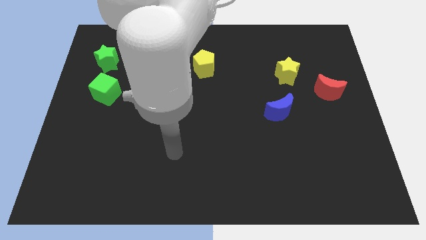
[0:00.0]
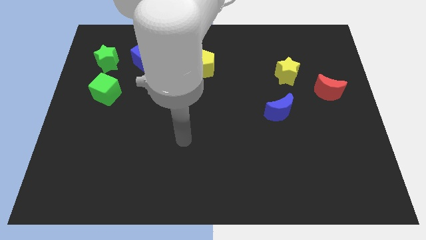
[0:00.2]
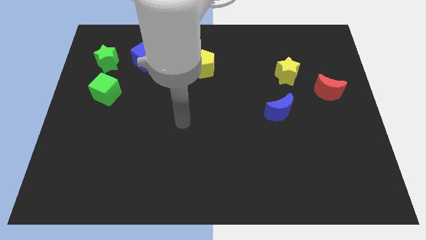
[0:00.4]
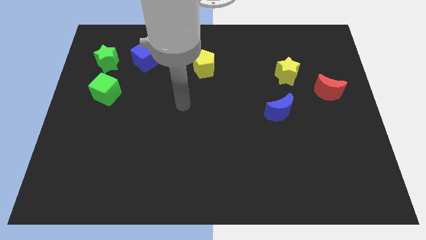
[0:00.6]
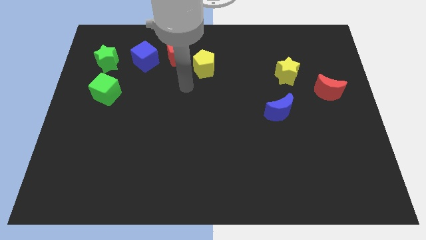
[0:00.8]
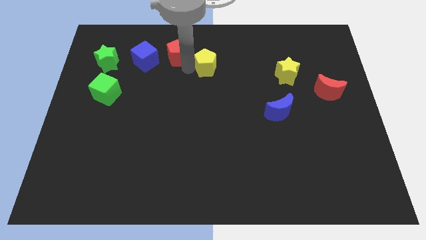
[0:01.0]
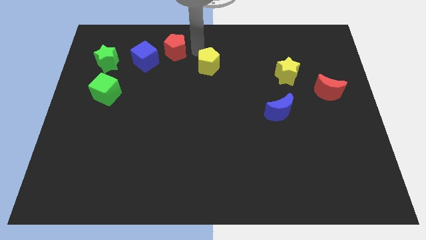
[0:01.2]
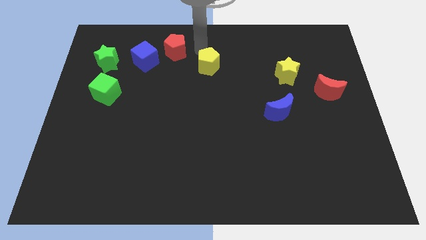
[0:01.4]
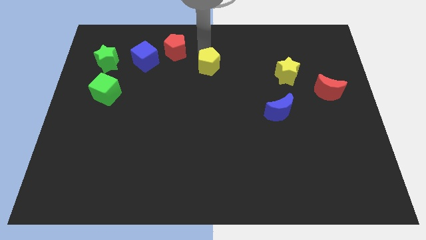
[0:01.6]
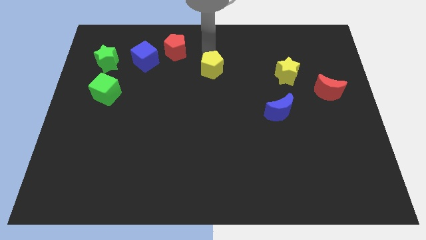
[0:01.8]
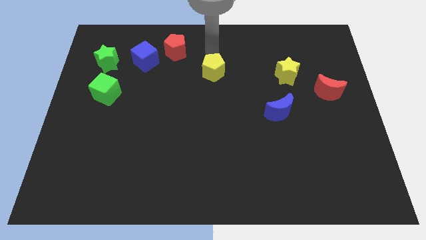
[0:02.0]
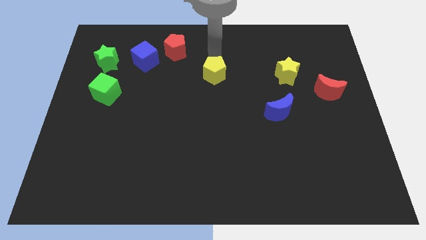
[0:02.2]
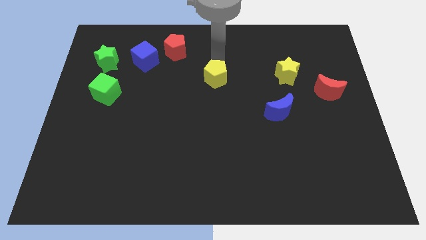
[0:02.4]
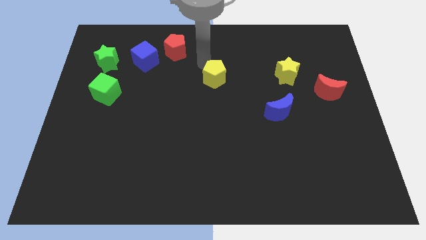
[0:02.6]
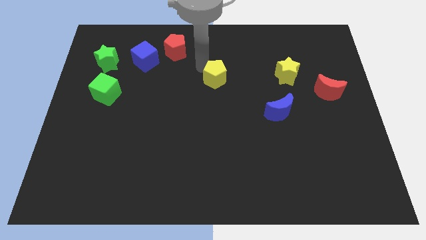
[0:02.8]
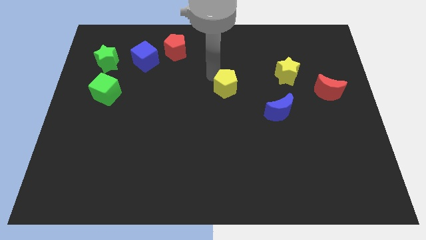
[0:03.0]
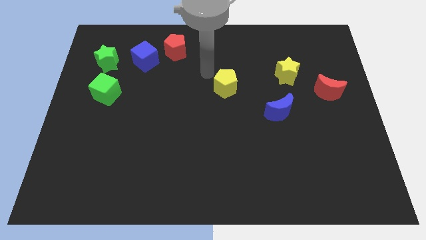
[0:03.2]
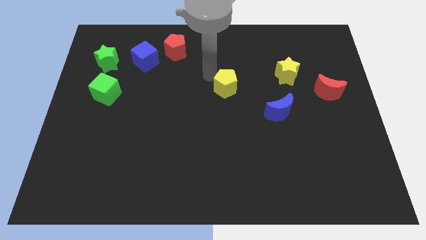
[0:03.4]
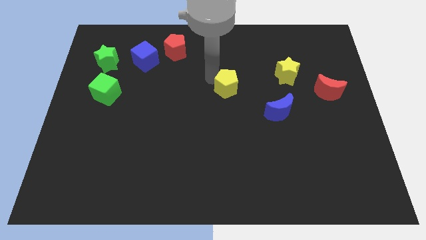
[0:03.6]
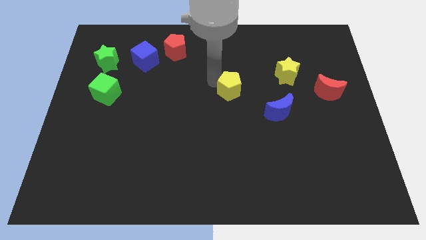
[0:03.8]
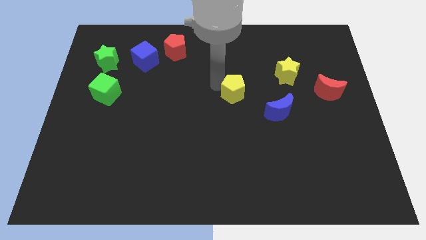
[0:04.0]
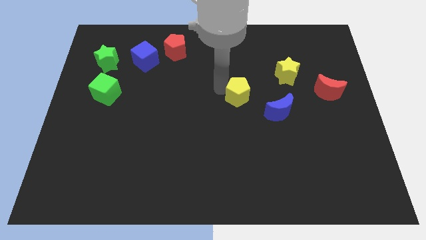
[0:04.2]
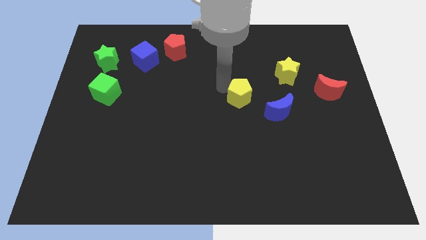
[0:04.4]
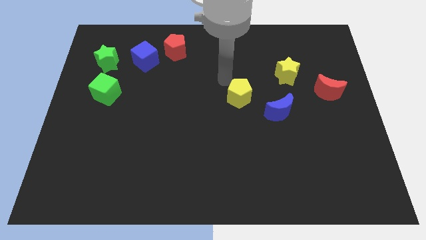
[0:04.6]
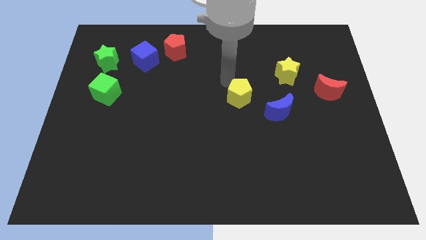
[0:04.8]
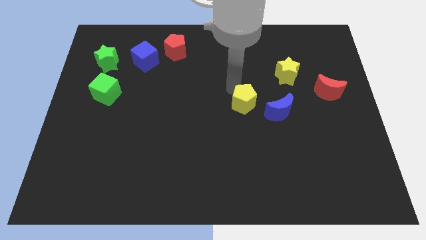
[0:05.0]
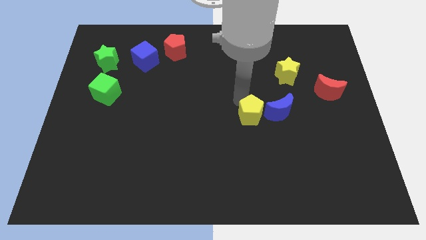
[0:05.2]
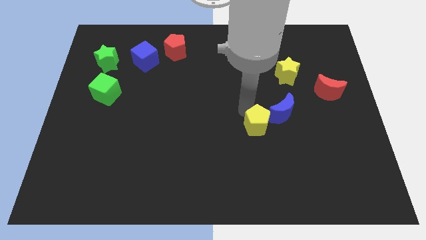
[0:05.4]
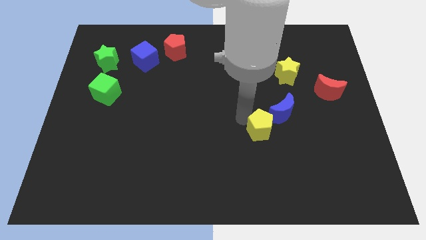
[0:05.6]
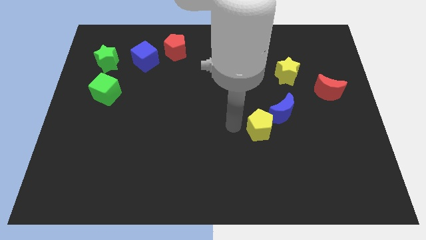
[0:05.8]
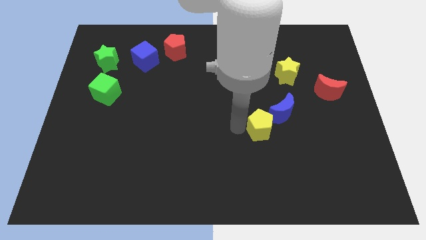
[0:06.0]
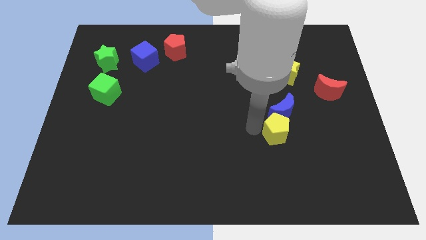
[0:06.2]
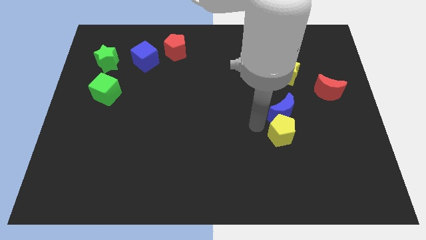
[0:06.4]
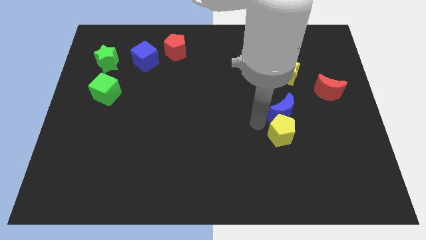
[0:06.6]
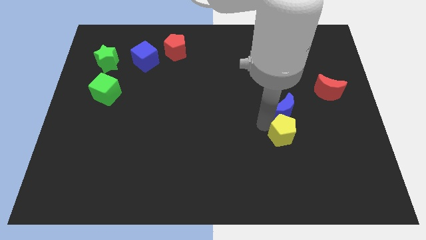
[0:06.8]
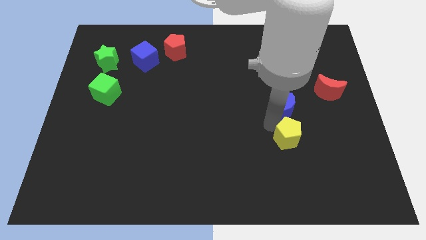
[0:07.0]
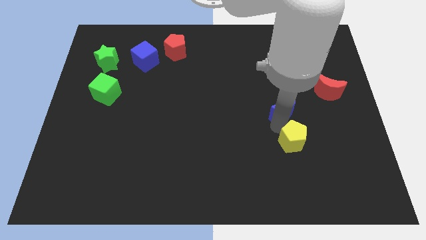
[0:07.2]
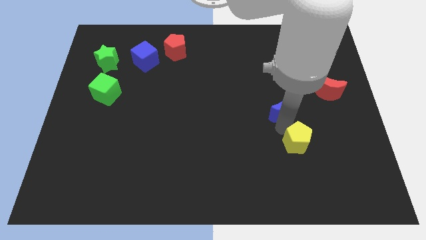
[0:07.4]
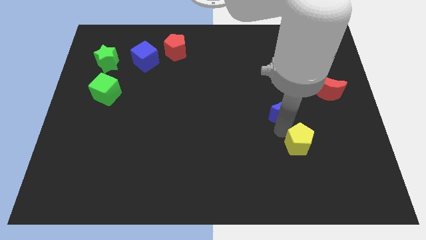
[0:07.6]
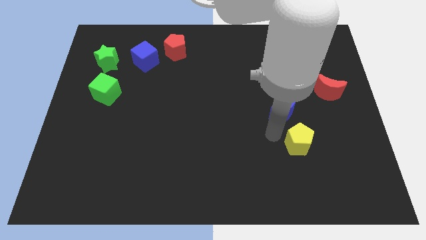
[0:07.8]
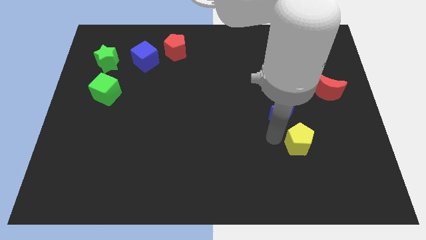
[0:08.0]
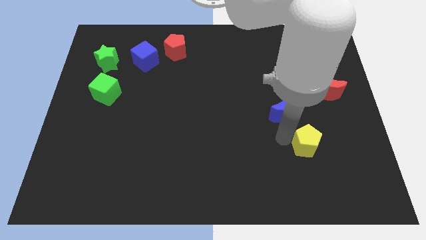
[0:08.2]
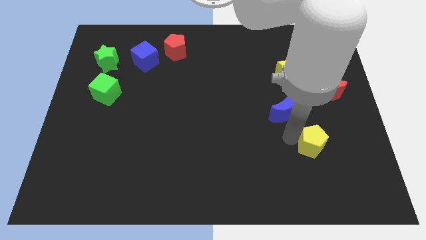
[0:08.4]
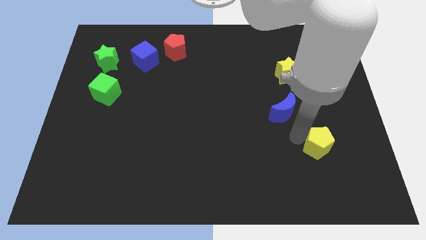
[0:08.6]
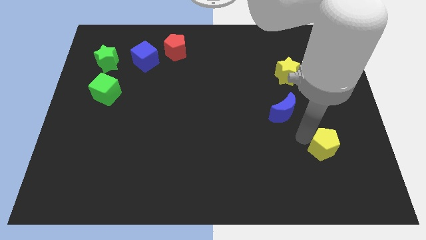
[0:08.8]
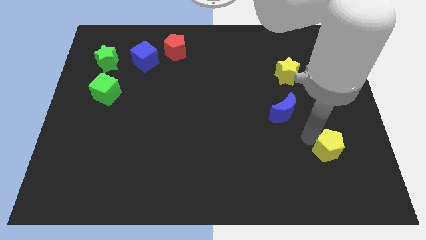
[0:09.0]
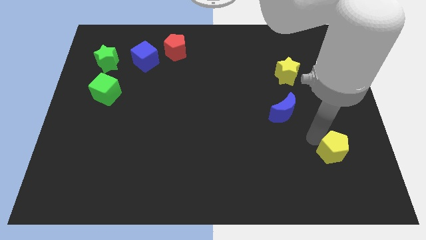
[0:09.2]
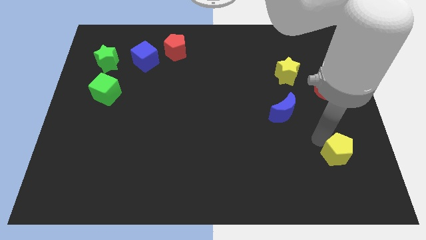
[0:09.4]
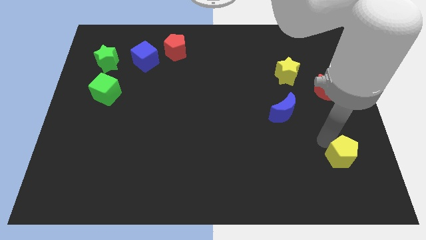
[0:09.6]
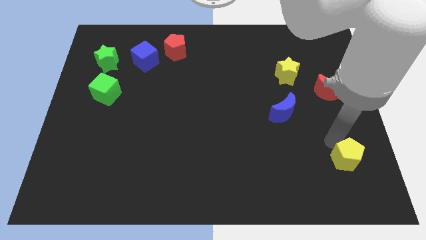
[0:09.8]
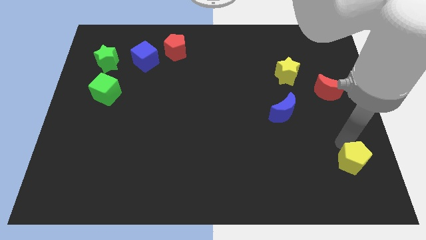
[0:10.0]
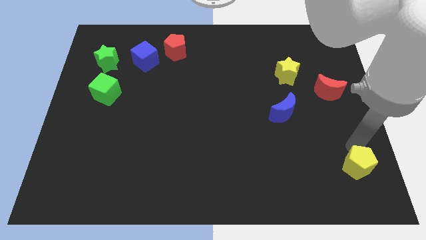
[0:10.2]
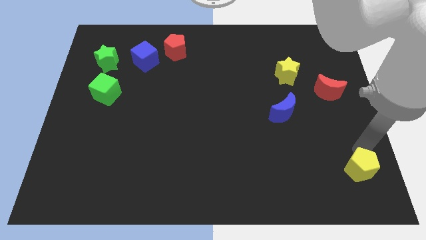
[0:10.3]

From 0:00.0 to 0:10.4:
move the yellow pentagon to the lower right corner

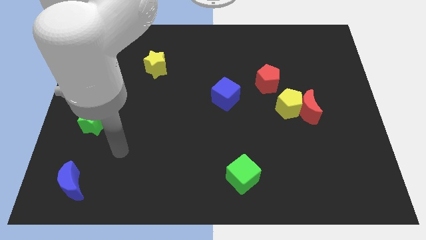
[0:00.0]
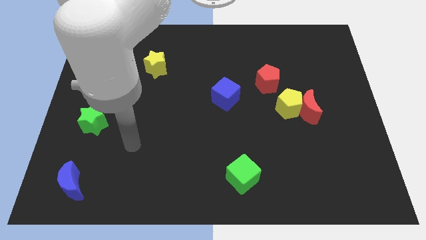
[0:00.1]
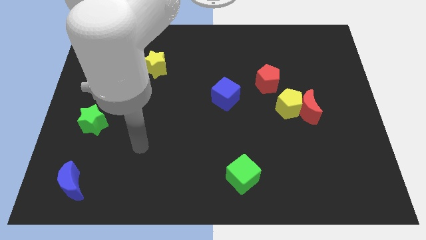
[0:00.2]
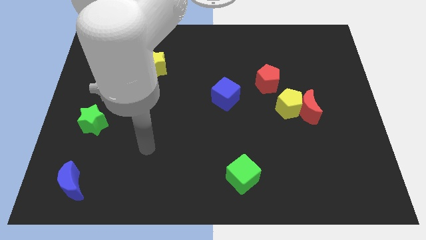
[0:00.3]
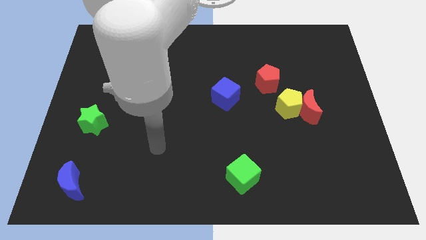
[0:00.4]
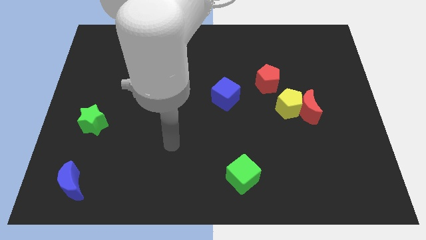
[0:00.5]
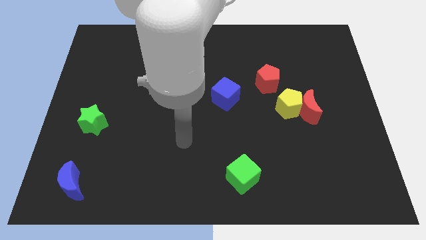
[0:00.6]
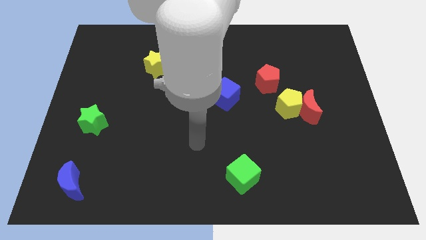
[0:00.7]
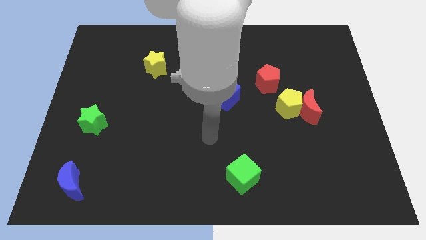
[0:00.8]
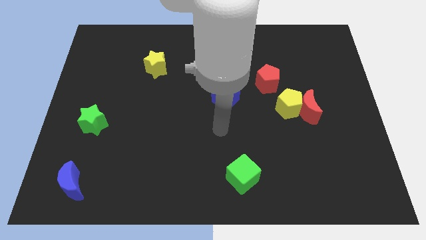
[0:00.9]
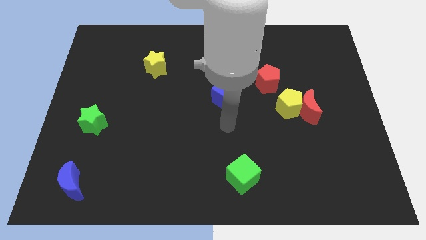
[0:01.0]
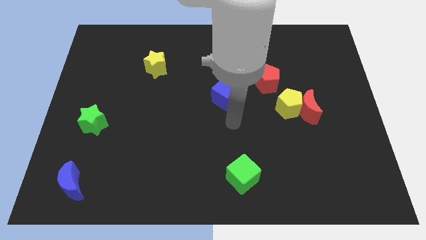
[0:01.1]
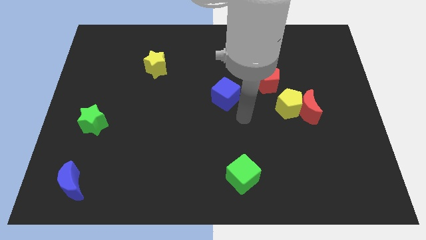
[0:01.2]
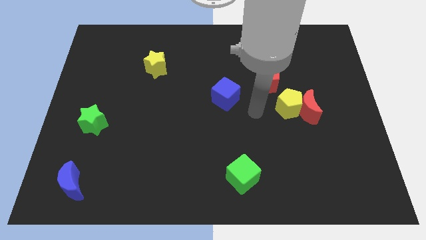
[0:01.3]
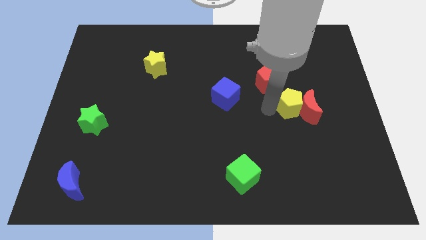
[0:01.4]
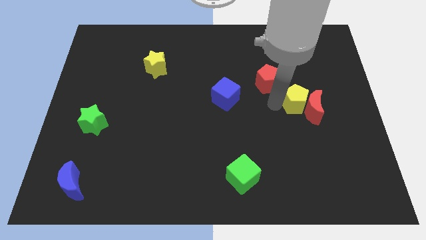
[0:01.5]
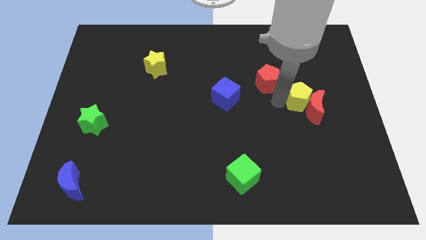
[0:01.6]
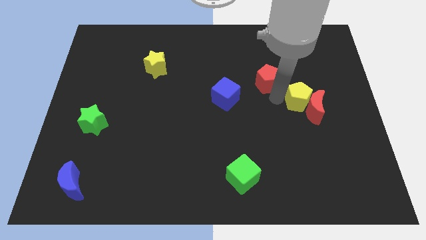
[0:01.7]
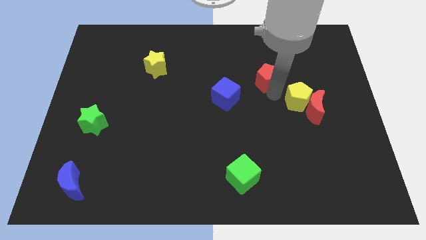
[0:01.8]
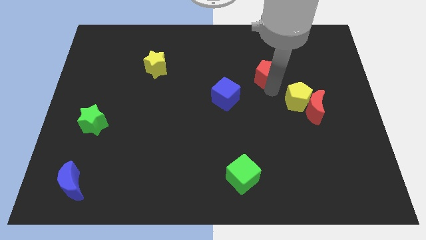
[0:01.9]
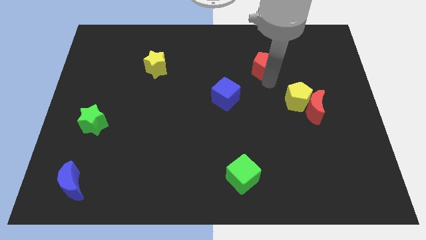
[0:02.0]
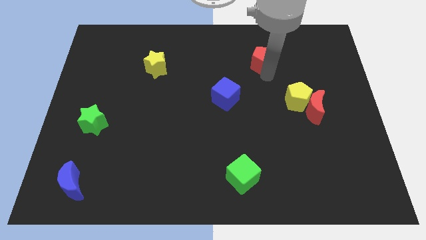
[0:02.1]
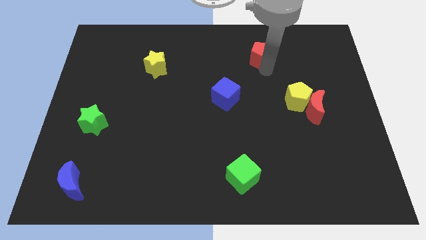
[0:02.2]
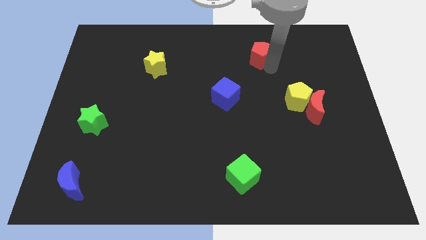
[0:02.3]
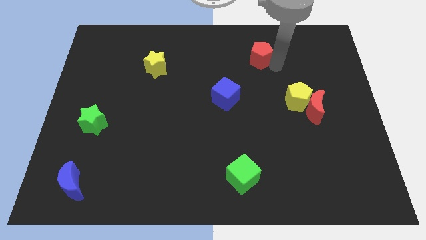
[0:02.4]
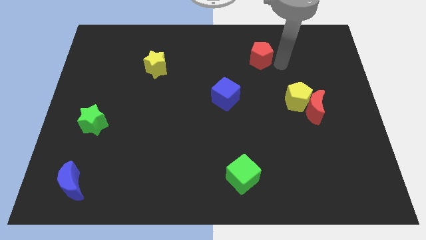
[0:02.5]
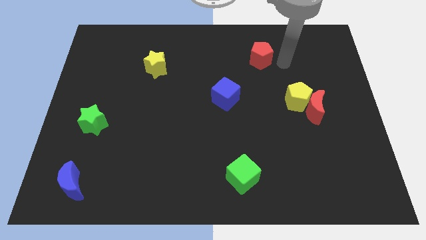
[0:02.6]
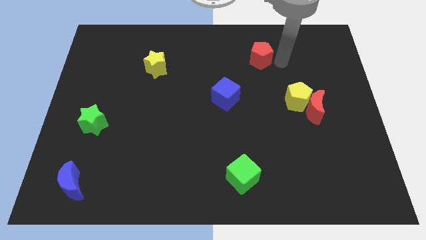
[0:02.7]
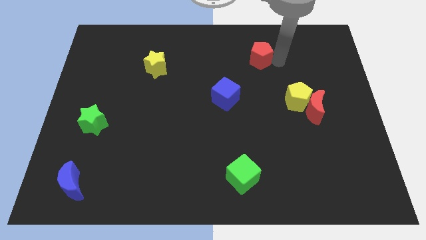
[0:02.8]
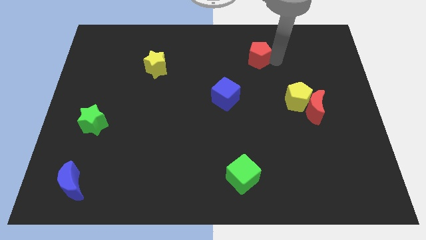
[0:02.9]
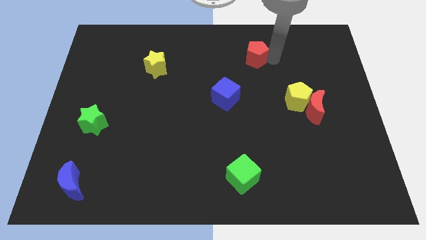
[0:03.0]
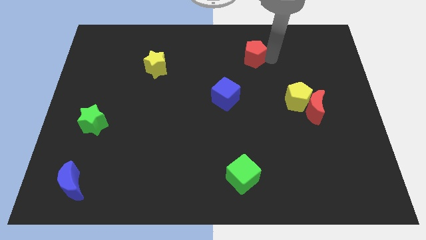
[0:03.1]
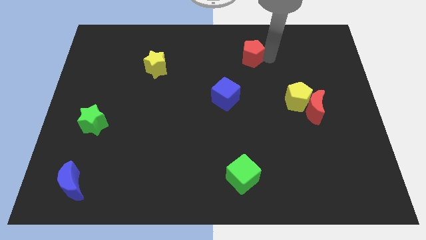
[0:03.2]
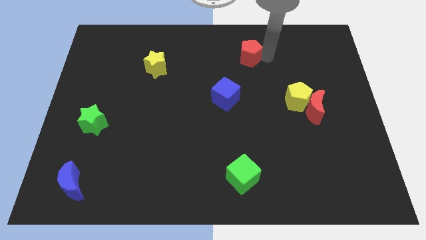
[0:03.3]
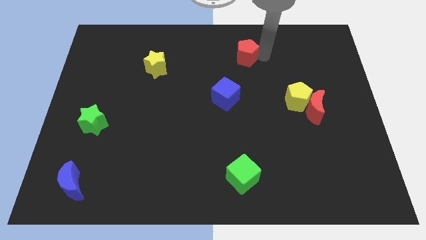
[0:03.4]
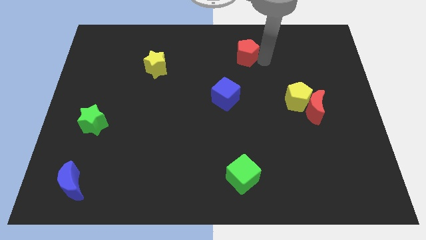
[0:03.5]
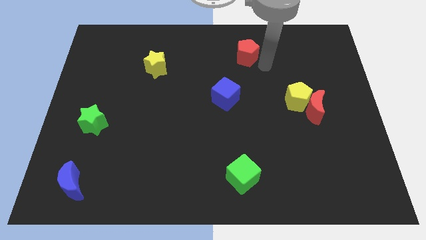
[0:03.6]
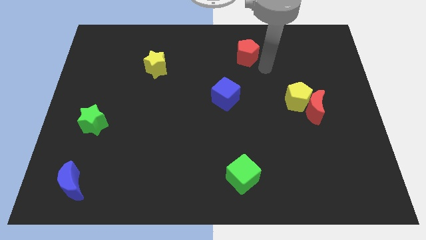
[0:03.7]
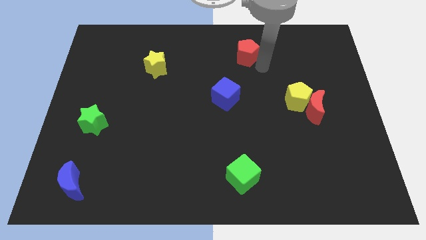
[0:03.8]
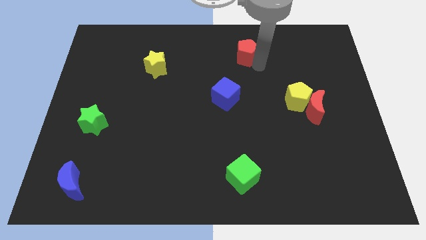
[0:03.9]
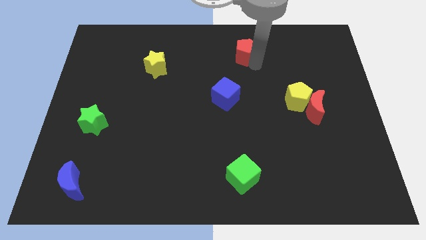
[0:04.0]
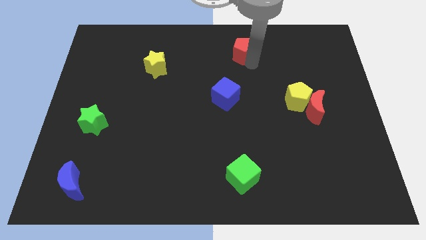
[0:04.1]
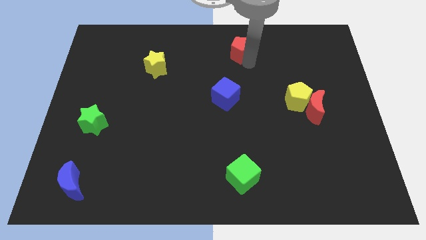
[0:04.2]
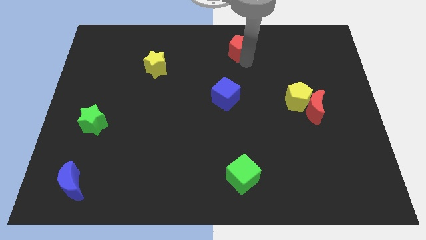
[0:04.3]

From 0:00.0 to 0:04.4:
push the red pentagon to the towards your base
